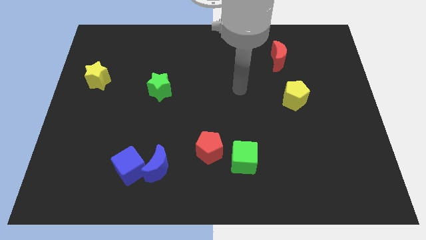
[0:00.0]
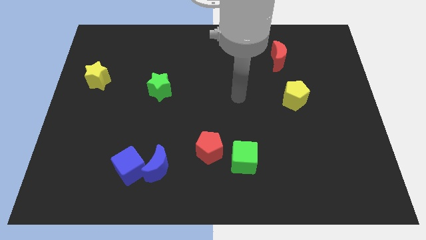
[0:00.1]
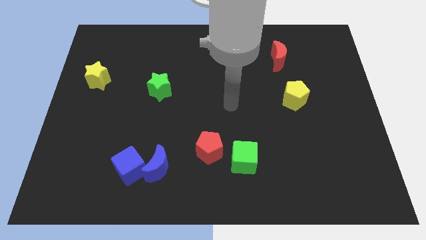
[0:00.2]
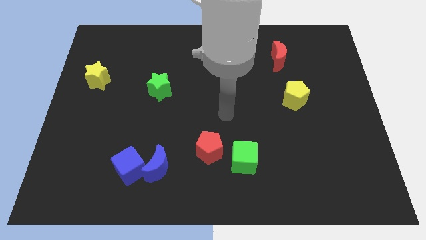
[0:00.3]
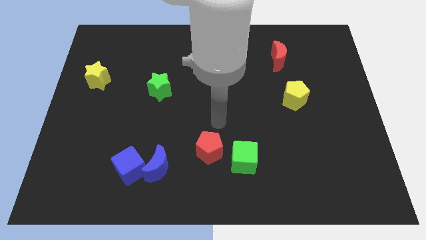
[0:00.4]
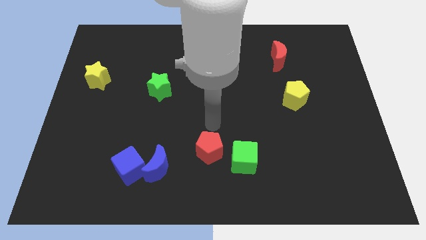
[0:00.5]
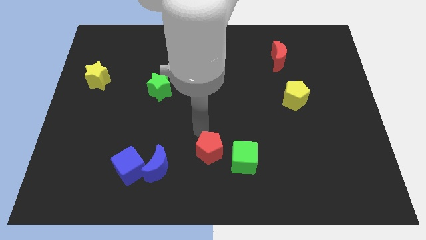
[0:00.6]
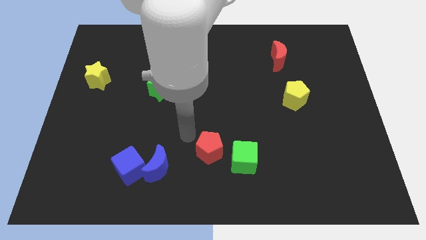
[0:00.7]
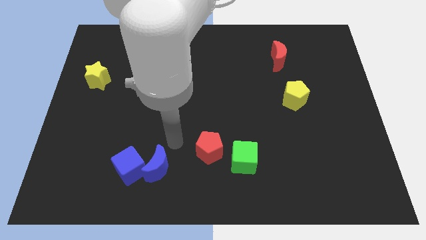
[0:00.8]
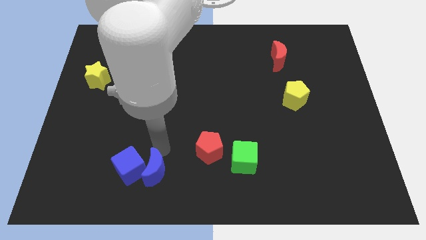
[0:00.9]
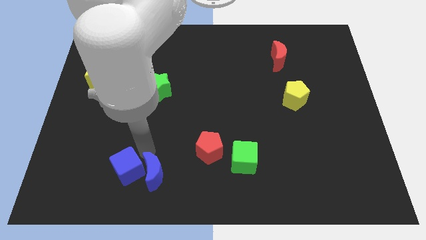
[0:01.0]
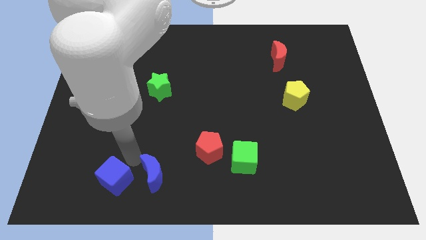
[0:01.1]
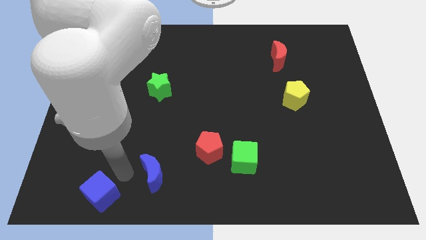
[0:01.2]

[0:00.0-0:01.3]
separate the blue moon from the blue cube

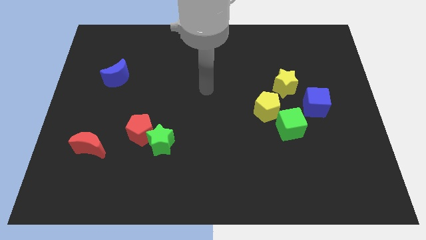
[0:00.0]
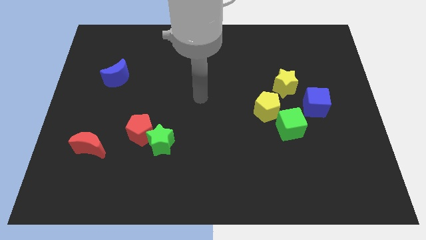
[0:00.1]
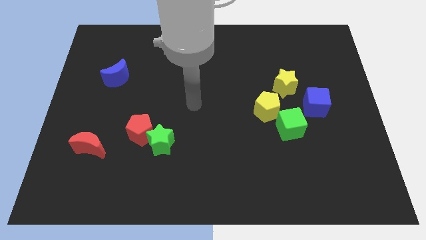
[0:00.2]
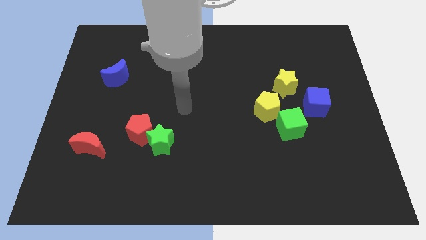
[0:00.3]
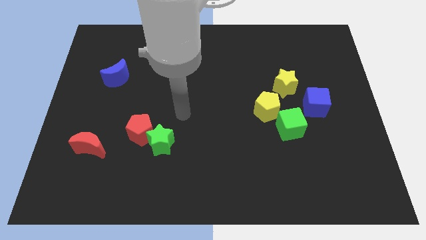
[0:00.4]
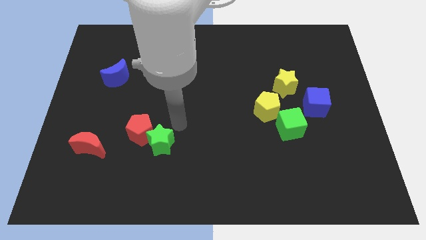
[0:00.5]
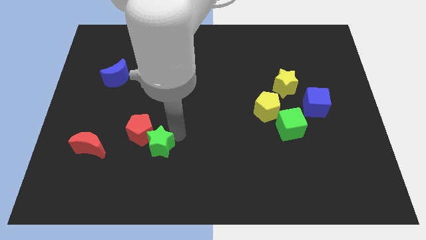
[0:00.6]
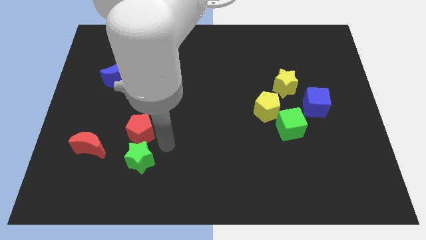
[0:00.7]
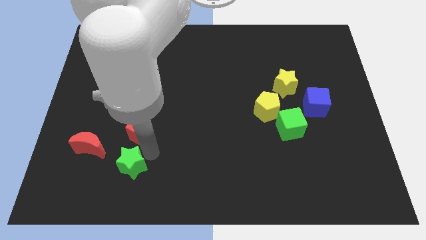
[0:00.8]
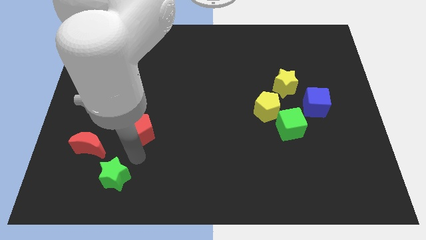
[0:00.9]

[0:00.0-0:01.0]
pull the red pentagon apart from the green star

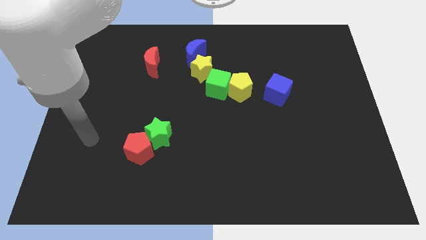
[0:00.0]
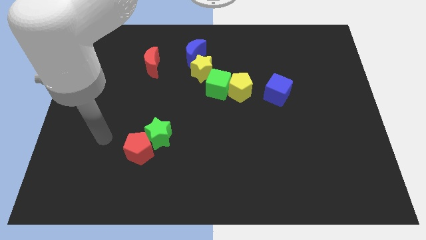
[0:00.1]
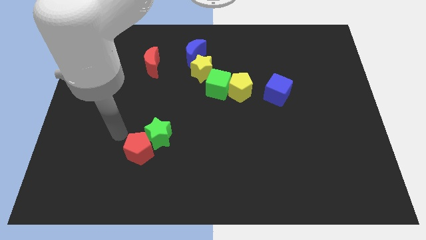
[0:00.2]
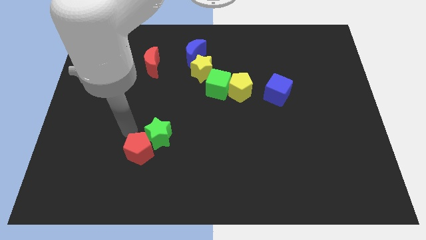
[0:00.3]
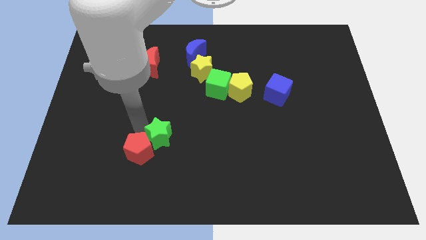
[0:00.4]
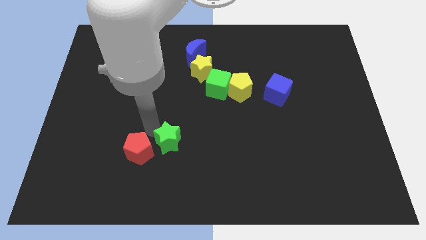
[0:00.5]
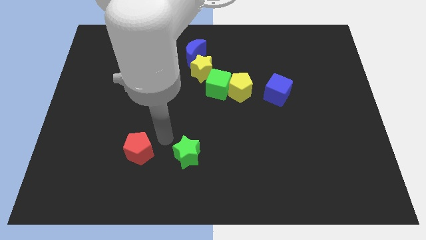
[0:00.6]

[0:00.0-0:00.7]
separate the red pentagon from the green star

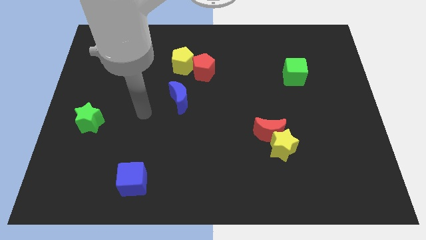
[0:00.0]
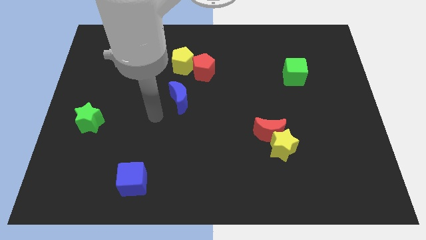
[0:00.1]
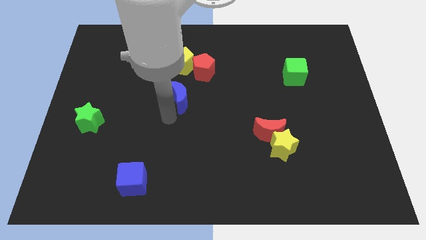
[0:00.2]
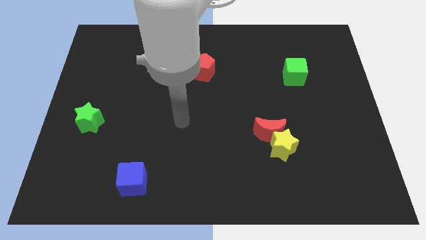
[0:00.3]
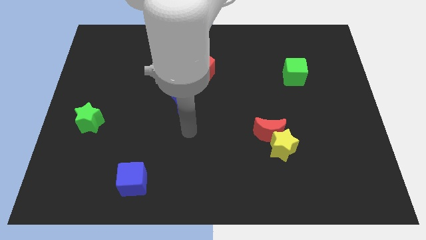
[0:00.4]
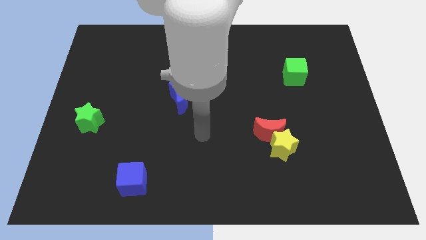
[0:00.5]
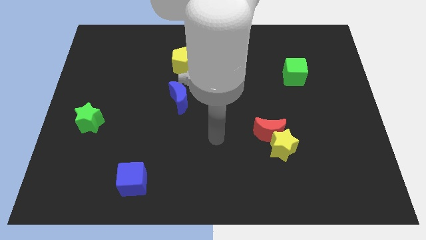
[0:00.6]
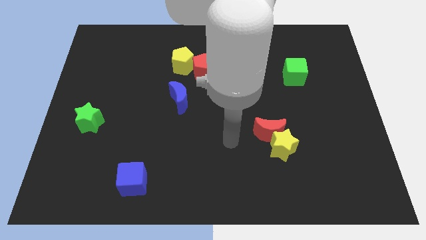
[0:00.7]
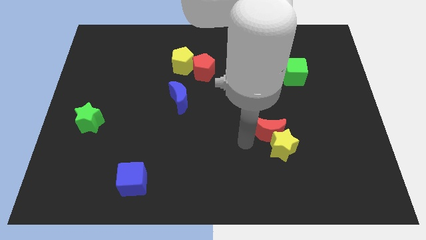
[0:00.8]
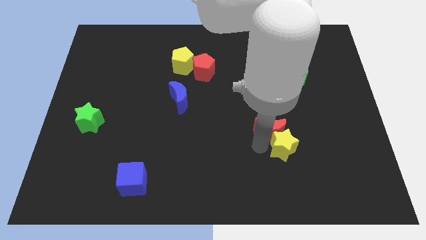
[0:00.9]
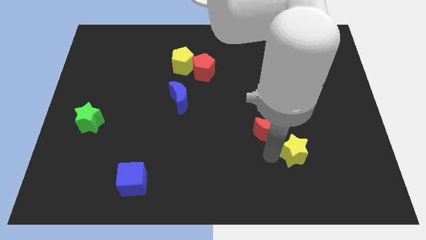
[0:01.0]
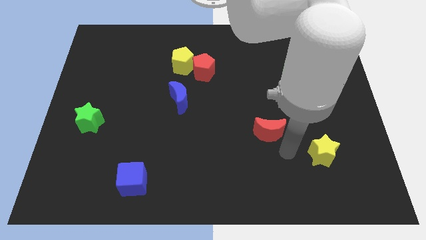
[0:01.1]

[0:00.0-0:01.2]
pull the red moon apart from the yellow star

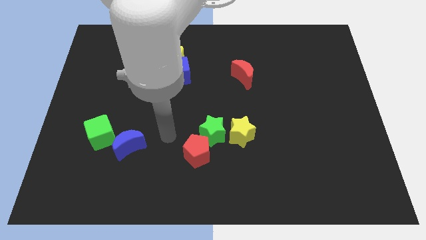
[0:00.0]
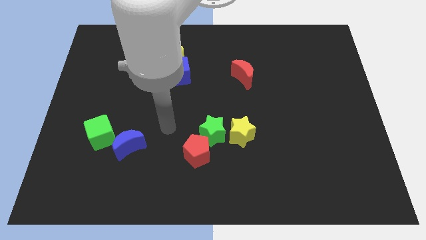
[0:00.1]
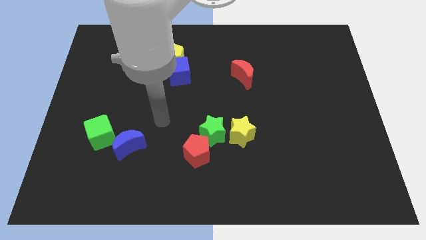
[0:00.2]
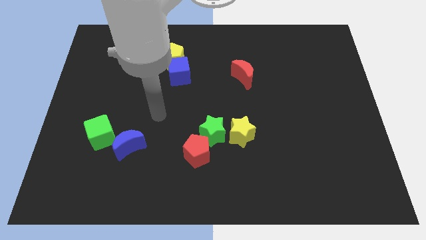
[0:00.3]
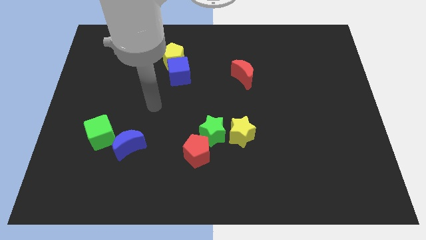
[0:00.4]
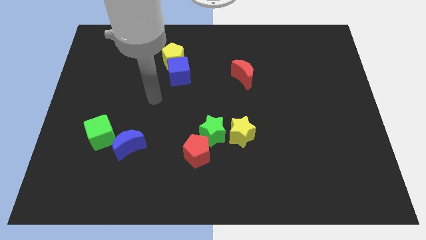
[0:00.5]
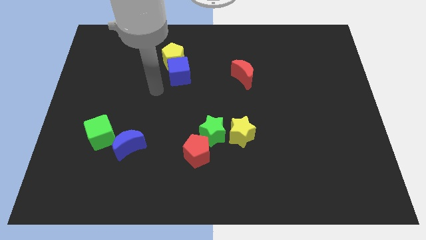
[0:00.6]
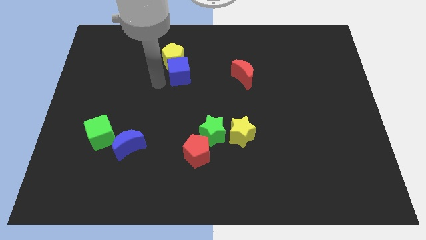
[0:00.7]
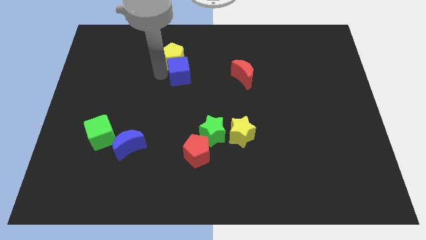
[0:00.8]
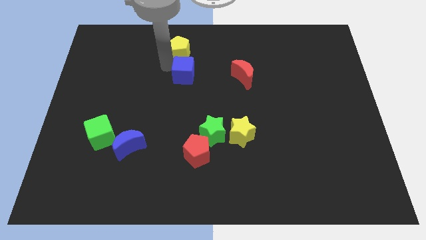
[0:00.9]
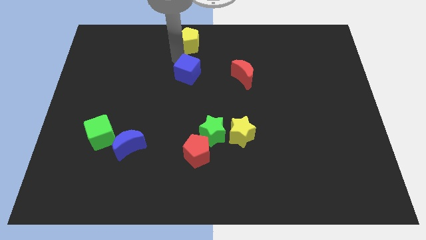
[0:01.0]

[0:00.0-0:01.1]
pull the blue cube apart from the yellow pentagon

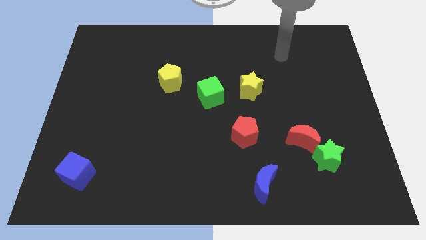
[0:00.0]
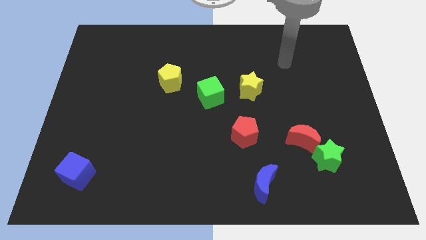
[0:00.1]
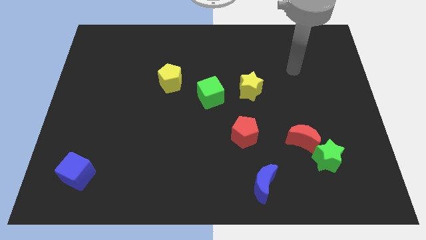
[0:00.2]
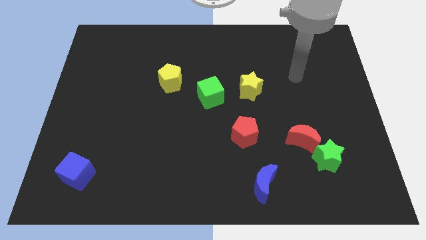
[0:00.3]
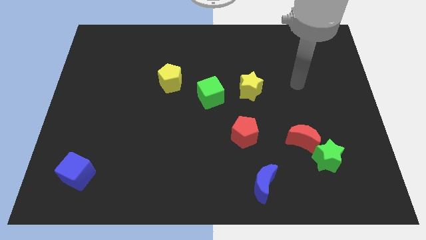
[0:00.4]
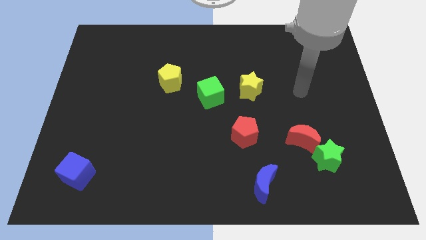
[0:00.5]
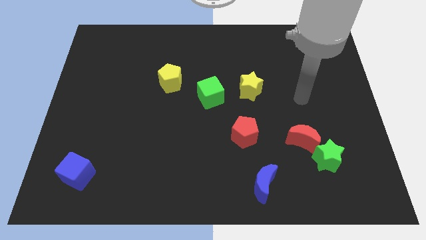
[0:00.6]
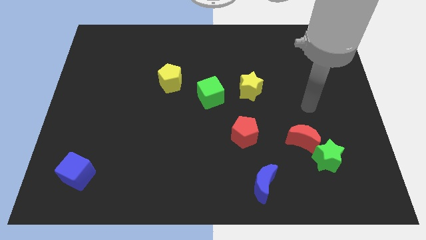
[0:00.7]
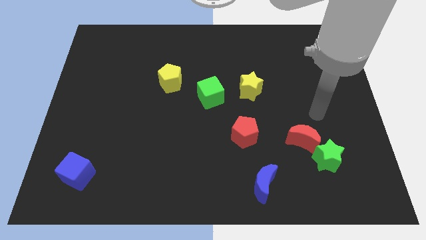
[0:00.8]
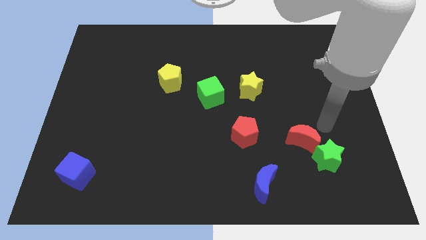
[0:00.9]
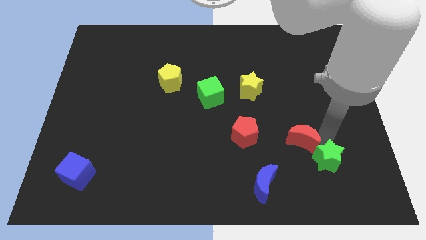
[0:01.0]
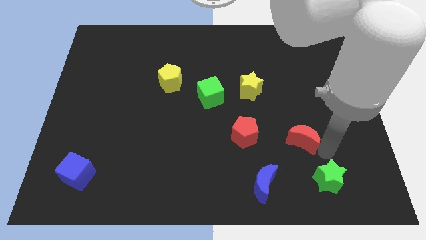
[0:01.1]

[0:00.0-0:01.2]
separate the red moon from the green star

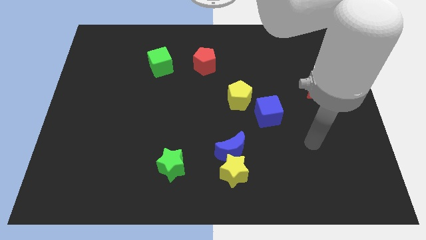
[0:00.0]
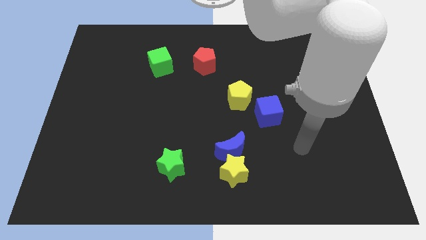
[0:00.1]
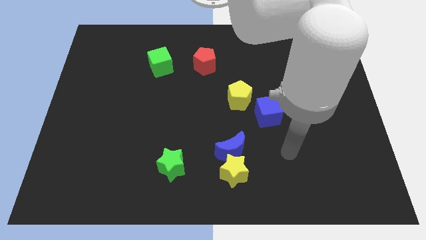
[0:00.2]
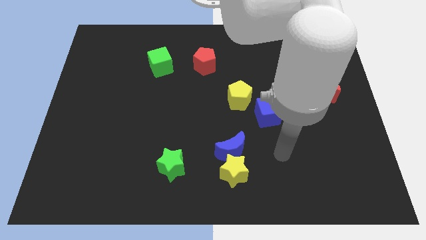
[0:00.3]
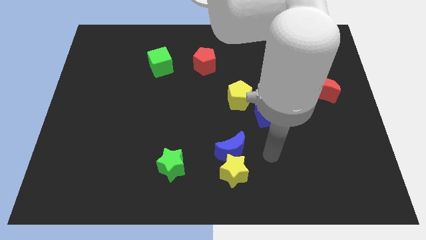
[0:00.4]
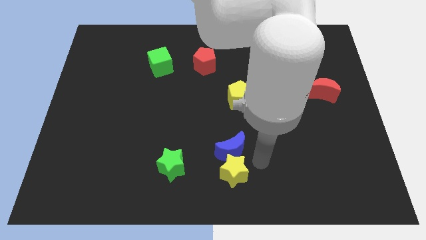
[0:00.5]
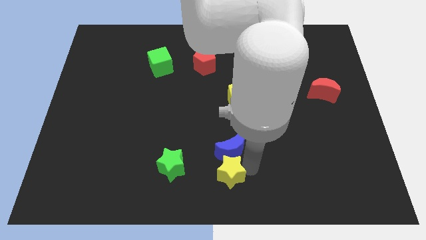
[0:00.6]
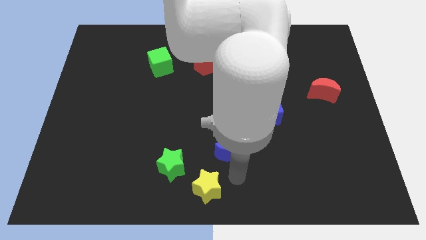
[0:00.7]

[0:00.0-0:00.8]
separate the blue moon from the yellow star

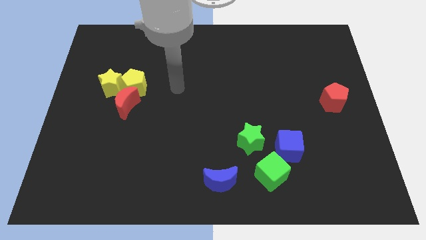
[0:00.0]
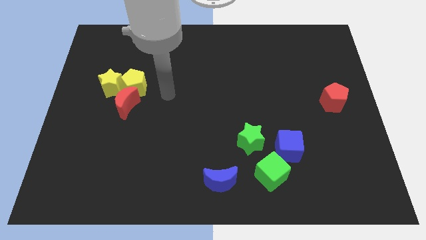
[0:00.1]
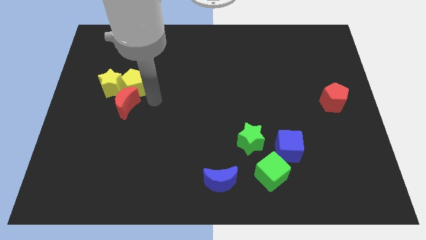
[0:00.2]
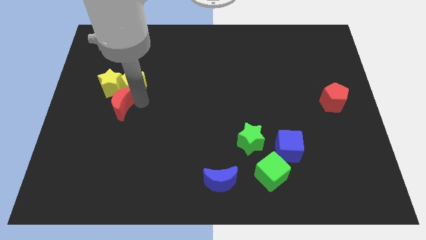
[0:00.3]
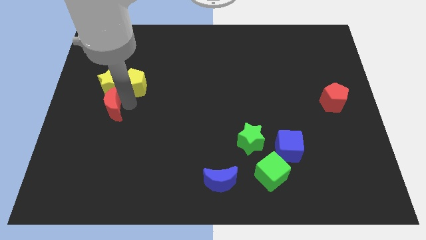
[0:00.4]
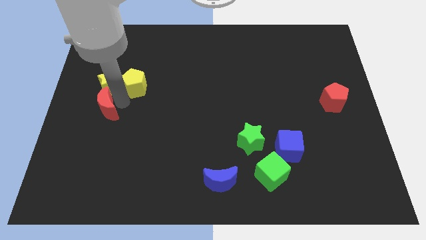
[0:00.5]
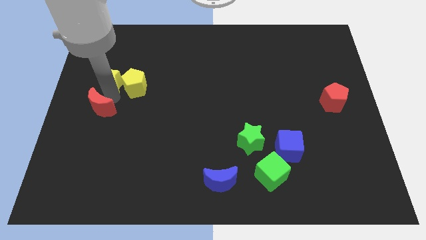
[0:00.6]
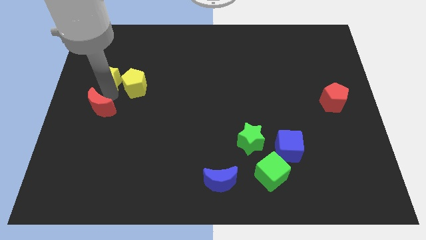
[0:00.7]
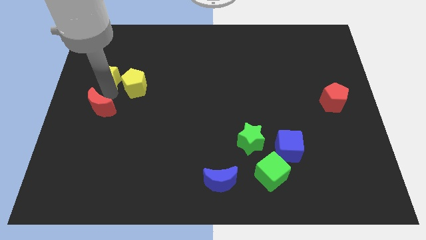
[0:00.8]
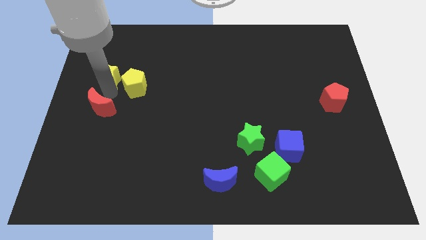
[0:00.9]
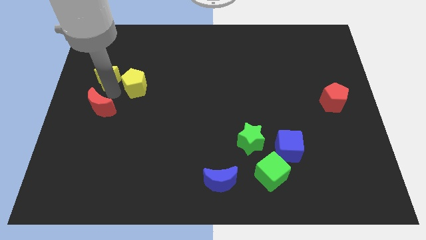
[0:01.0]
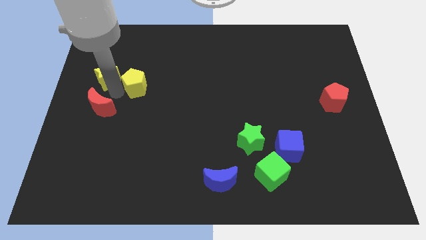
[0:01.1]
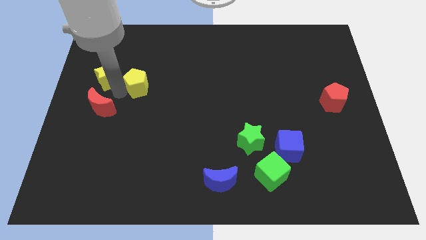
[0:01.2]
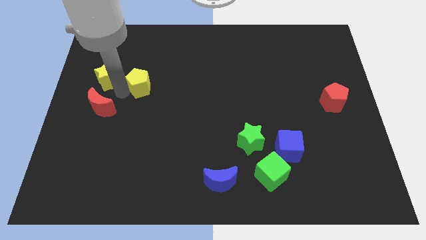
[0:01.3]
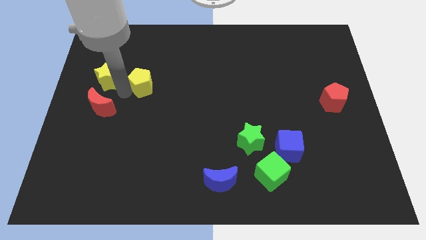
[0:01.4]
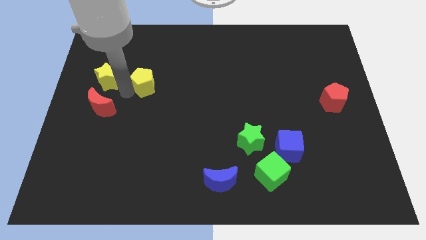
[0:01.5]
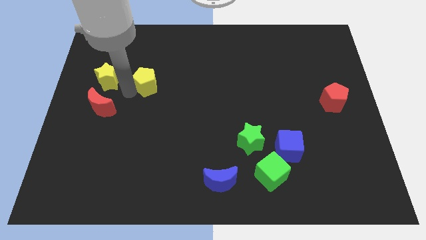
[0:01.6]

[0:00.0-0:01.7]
pull the yellow pentagon apart from the red moon and yellow star

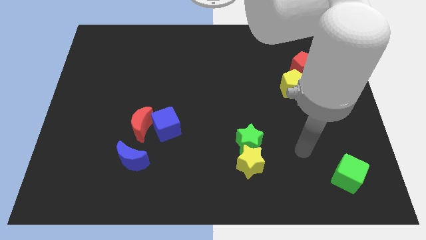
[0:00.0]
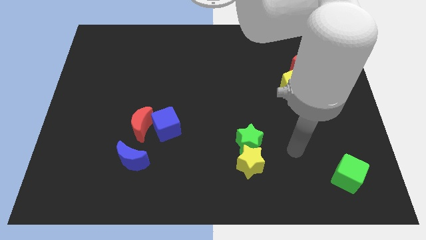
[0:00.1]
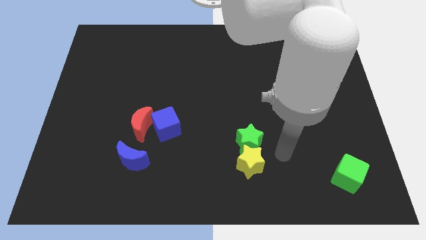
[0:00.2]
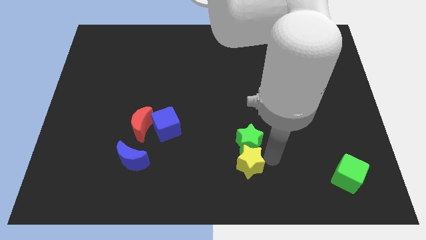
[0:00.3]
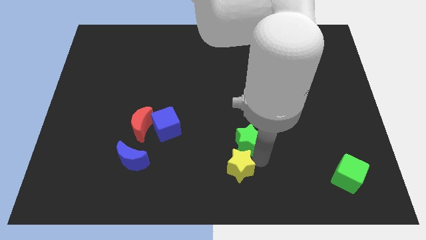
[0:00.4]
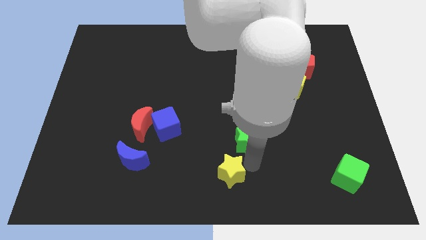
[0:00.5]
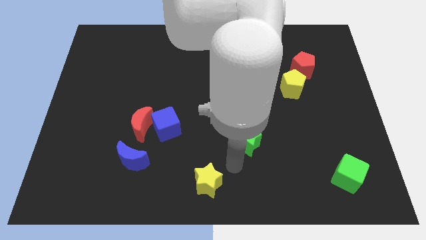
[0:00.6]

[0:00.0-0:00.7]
move the green star away from the yellow star
